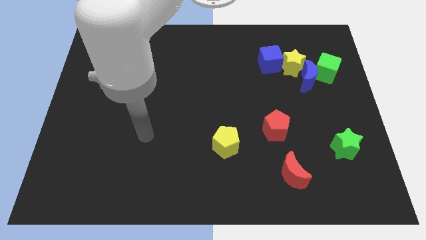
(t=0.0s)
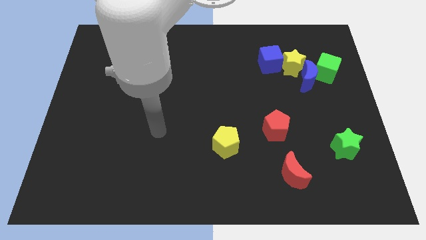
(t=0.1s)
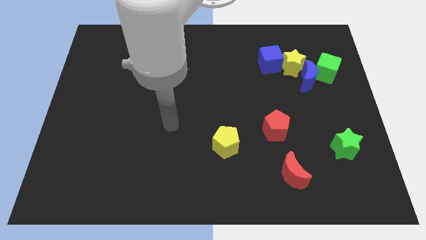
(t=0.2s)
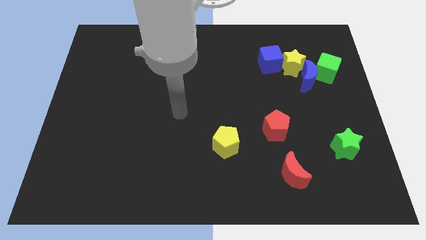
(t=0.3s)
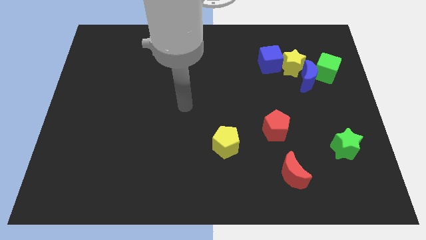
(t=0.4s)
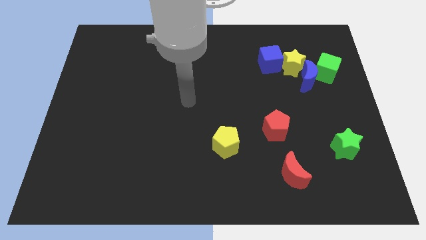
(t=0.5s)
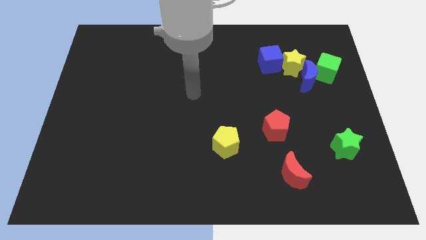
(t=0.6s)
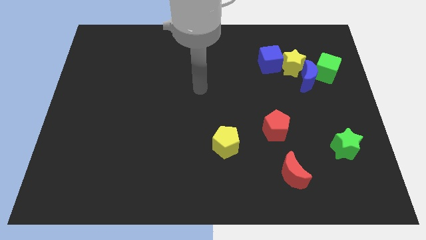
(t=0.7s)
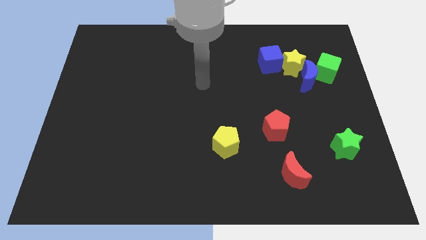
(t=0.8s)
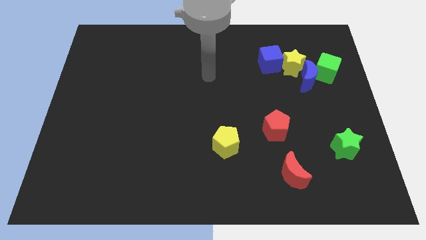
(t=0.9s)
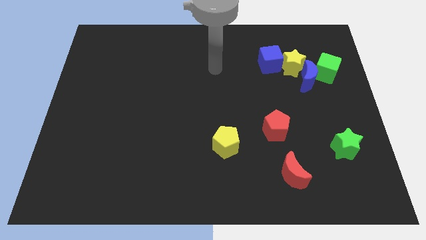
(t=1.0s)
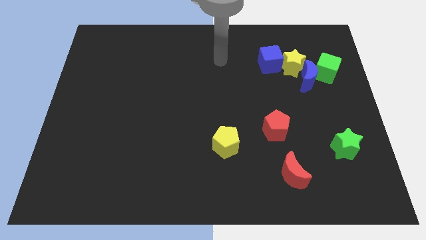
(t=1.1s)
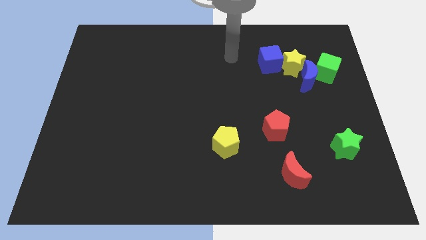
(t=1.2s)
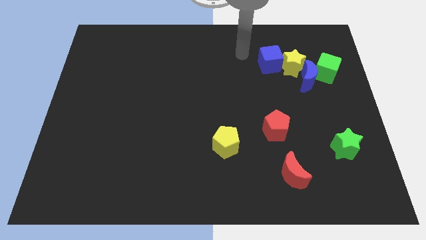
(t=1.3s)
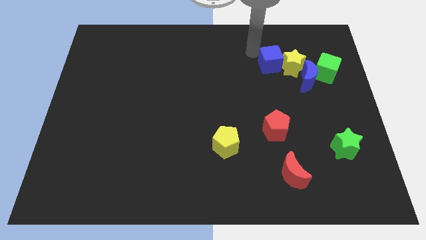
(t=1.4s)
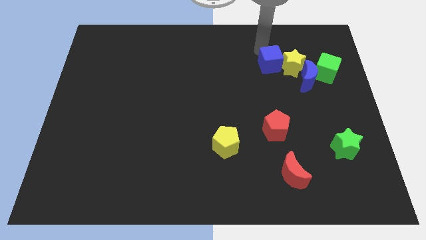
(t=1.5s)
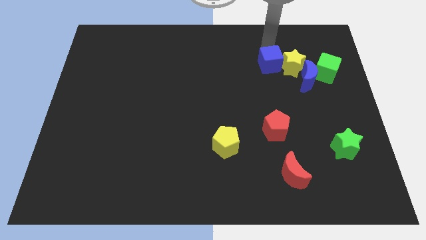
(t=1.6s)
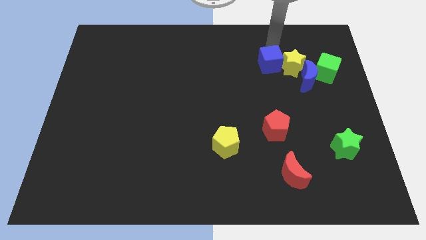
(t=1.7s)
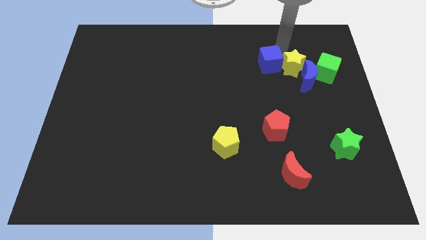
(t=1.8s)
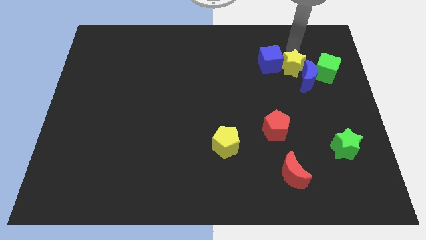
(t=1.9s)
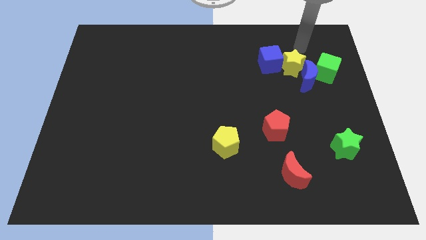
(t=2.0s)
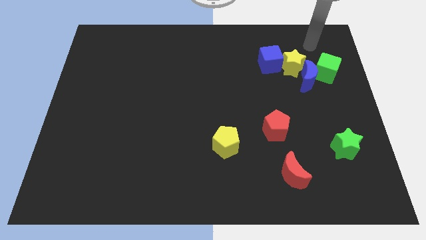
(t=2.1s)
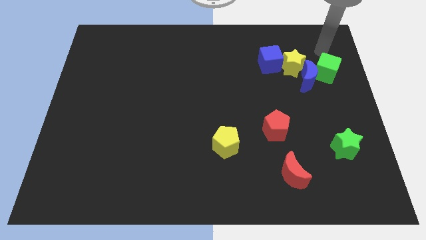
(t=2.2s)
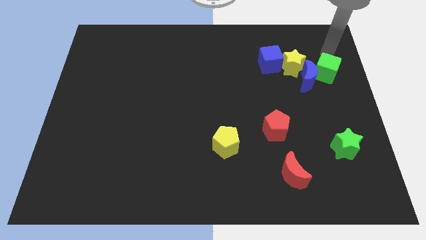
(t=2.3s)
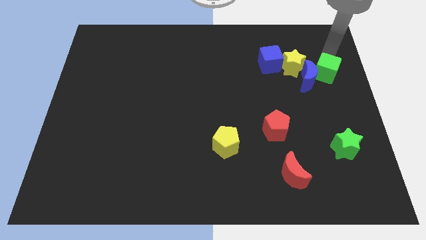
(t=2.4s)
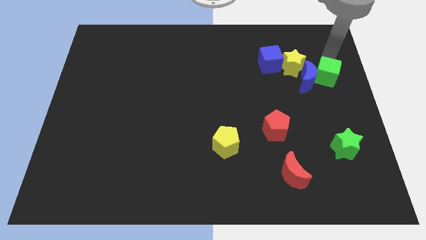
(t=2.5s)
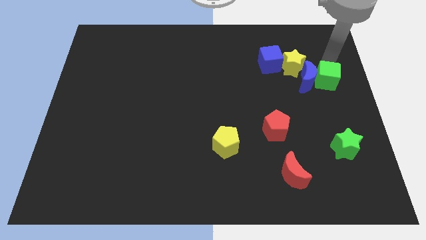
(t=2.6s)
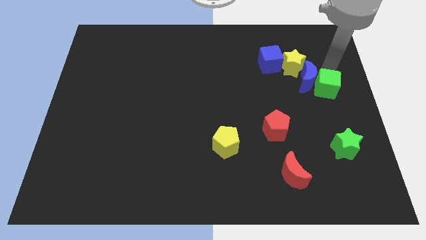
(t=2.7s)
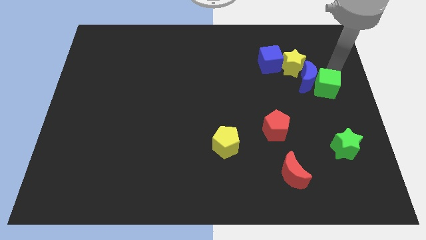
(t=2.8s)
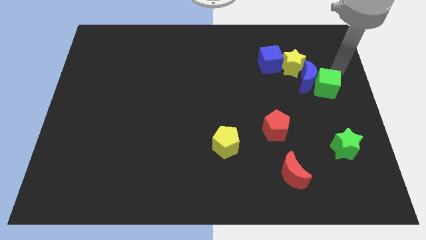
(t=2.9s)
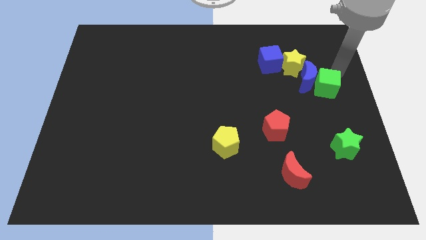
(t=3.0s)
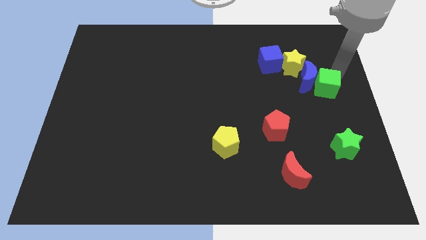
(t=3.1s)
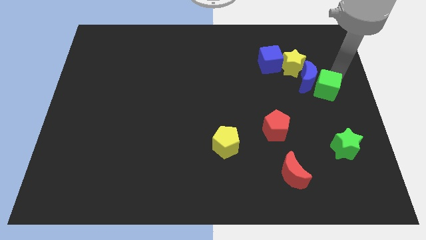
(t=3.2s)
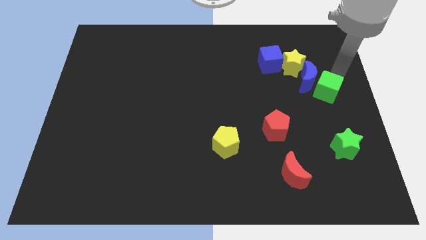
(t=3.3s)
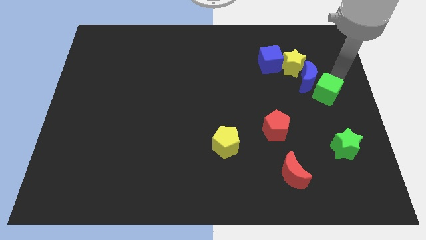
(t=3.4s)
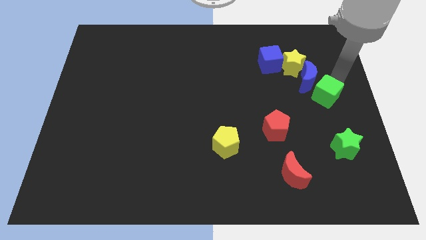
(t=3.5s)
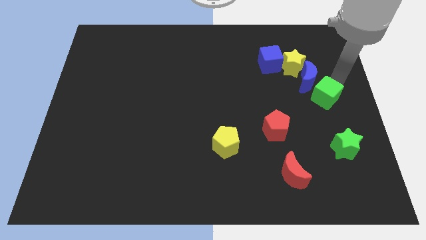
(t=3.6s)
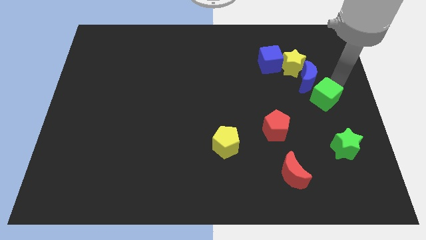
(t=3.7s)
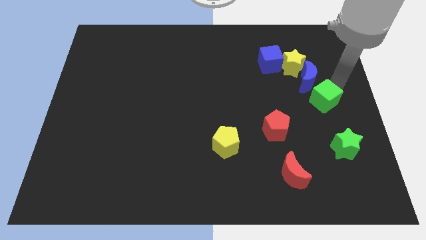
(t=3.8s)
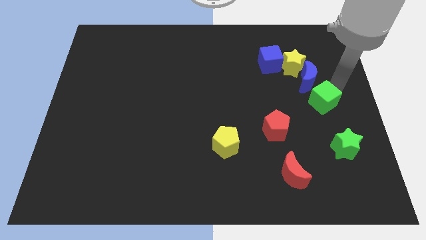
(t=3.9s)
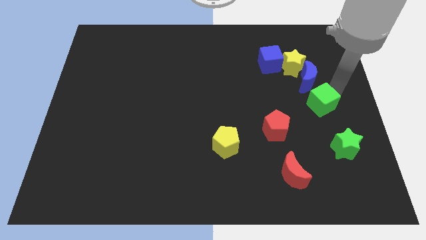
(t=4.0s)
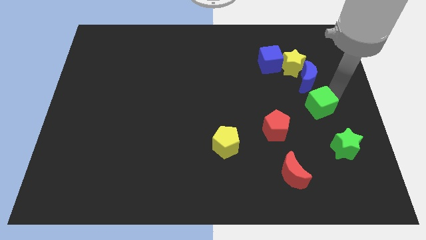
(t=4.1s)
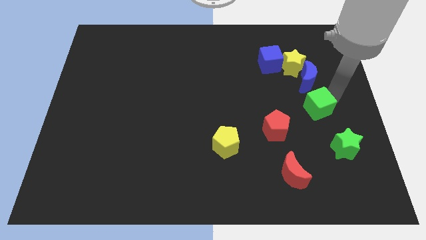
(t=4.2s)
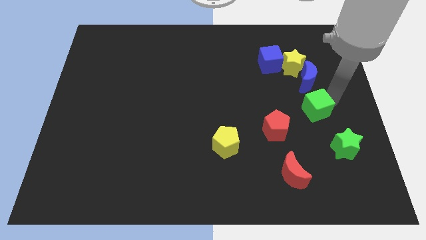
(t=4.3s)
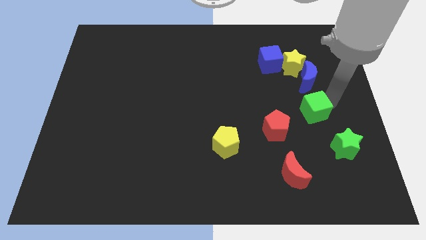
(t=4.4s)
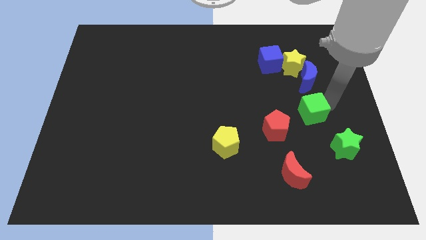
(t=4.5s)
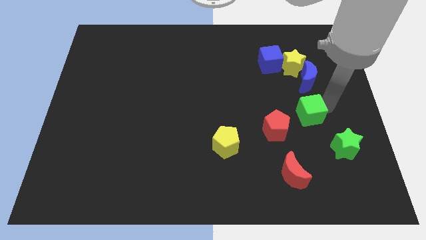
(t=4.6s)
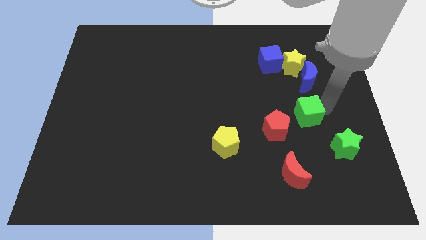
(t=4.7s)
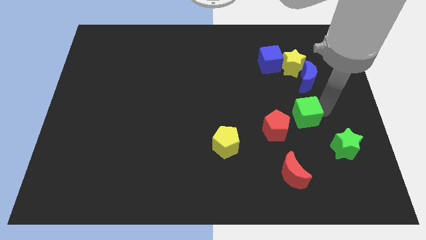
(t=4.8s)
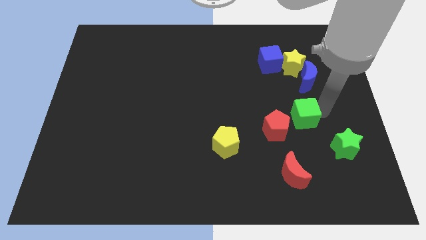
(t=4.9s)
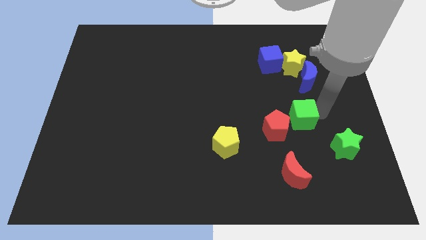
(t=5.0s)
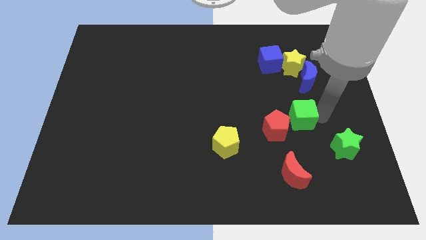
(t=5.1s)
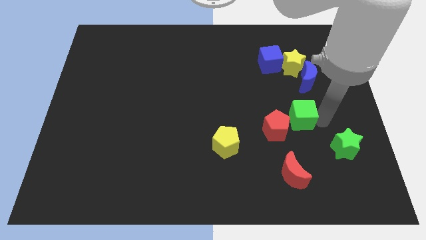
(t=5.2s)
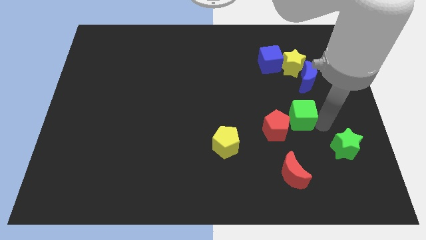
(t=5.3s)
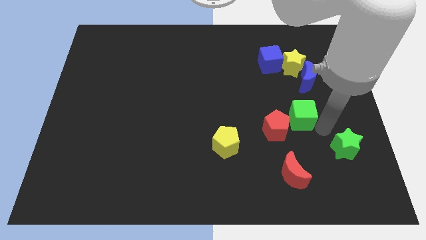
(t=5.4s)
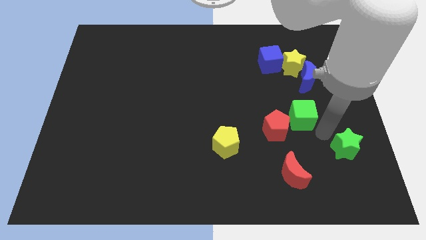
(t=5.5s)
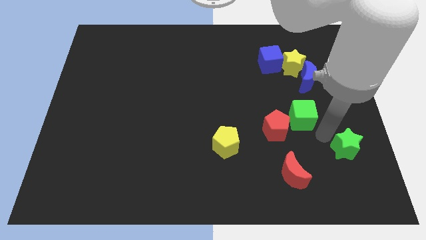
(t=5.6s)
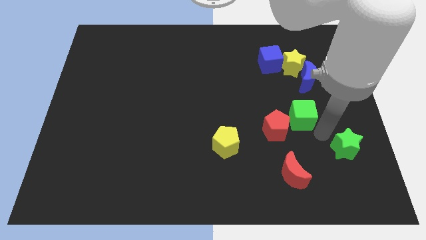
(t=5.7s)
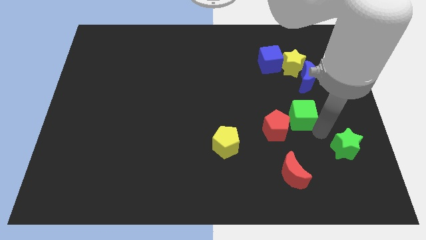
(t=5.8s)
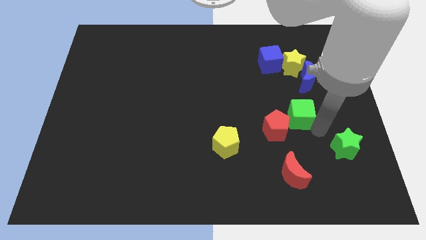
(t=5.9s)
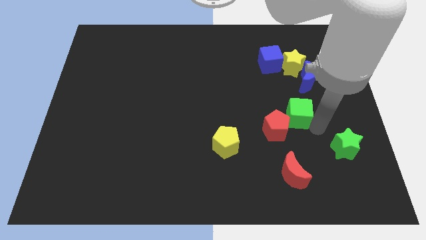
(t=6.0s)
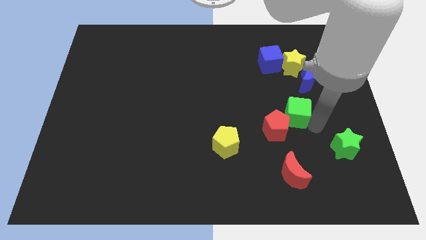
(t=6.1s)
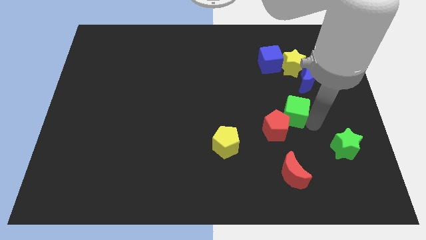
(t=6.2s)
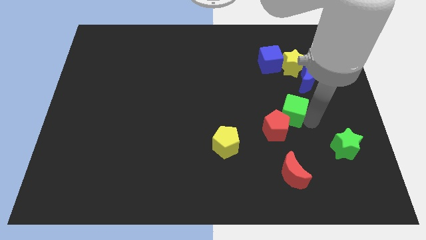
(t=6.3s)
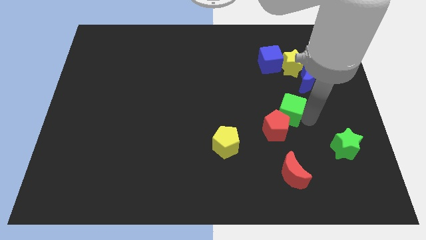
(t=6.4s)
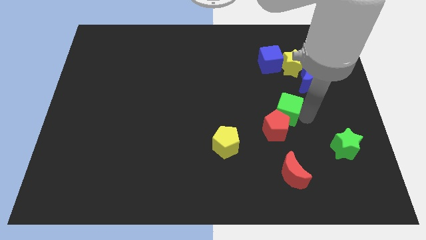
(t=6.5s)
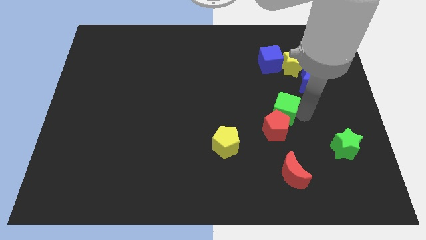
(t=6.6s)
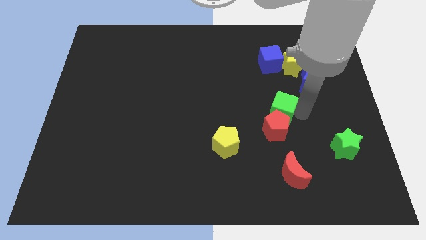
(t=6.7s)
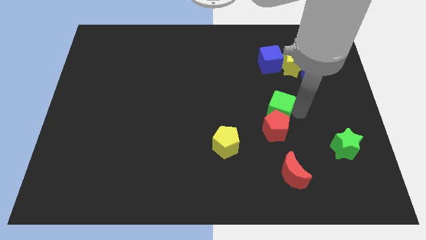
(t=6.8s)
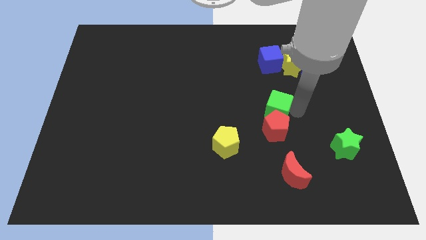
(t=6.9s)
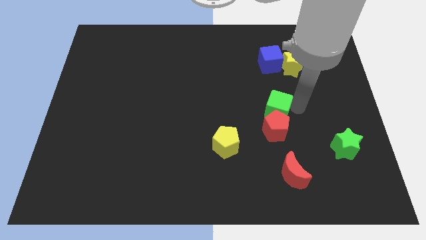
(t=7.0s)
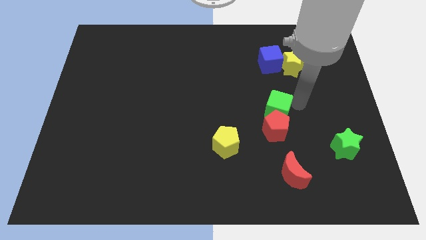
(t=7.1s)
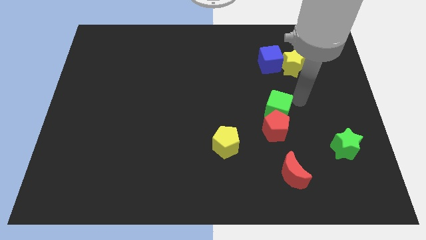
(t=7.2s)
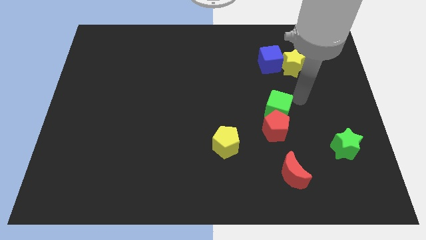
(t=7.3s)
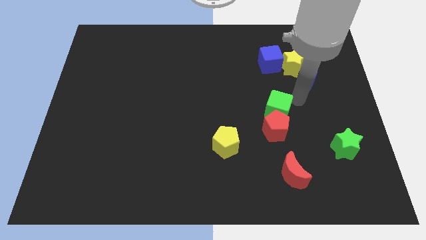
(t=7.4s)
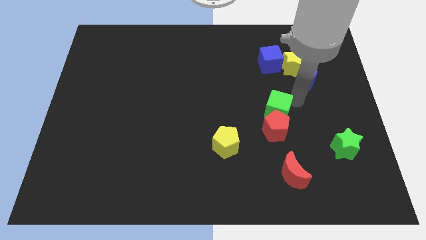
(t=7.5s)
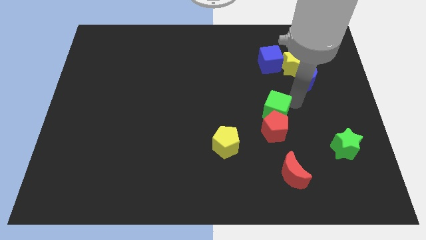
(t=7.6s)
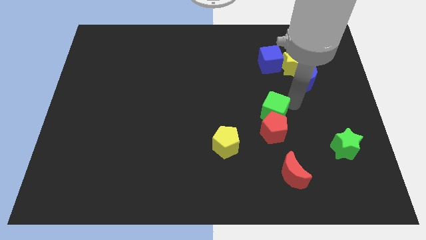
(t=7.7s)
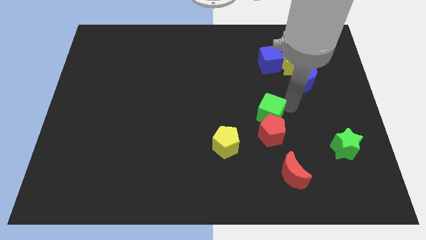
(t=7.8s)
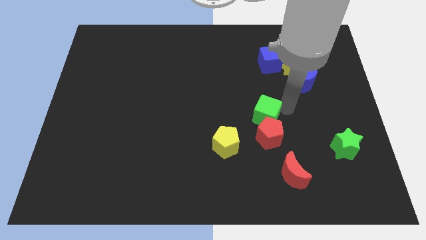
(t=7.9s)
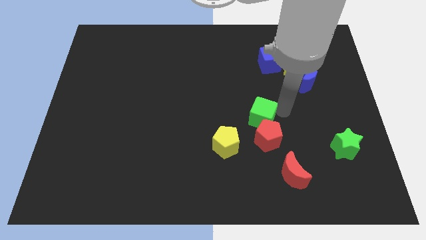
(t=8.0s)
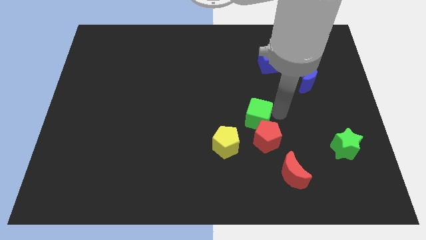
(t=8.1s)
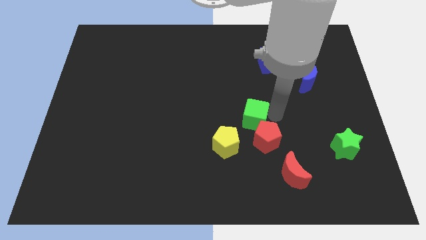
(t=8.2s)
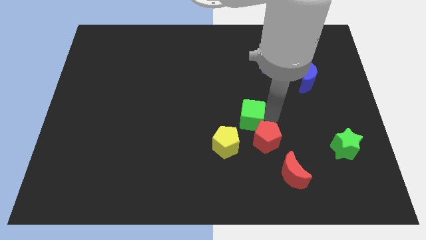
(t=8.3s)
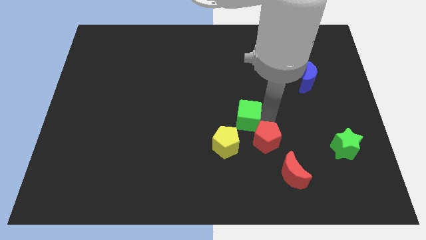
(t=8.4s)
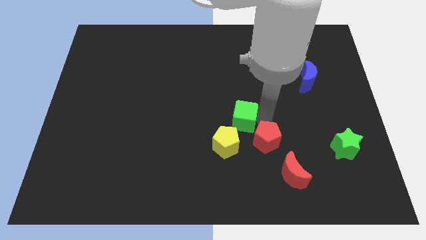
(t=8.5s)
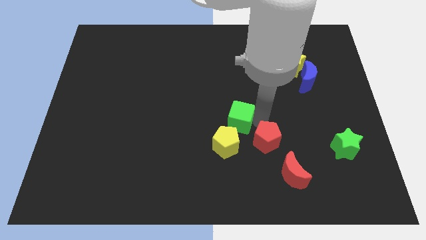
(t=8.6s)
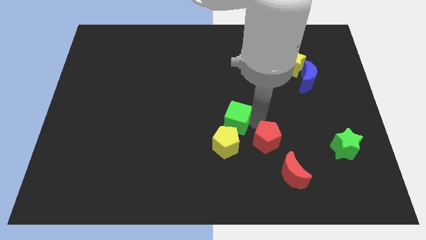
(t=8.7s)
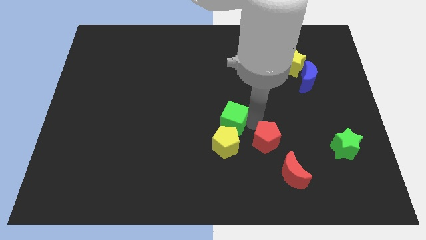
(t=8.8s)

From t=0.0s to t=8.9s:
move the green cube left of the red pentagon
